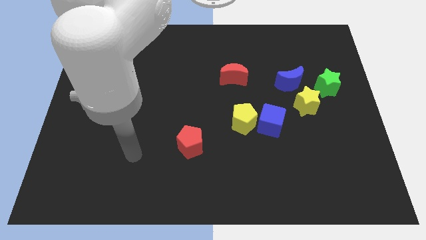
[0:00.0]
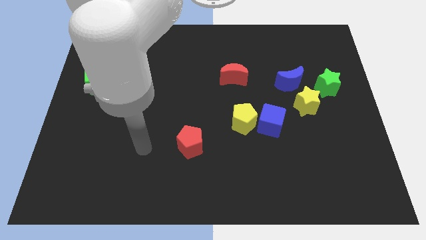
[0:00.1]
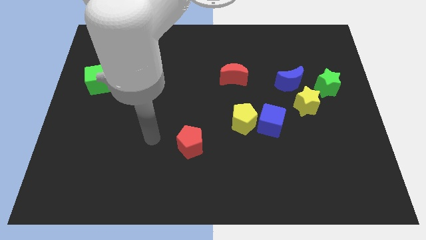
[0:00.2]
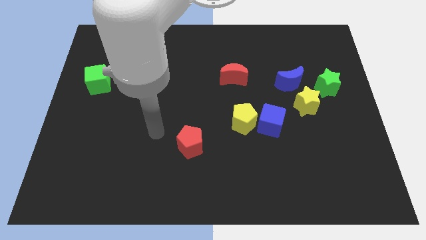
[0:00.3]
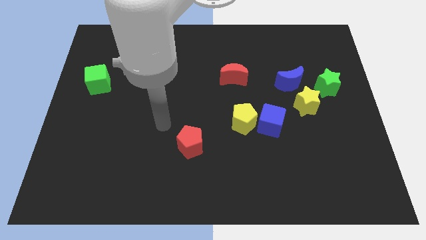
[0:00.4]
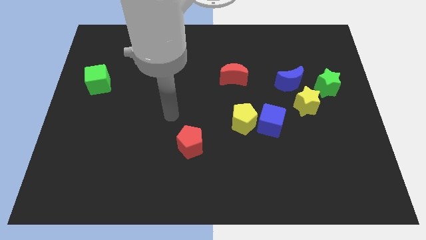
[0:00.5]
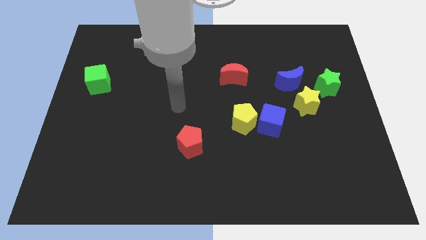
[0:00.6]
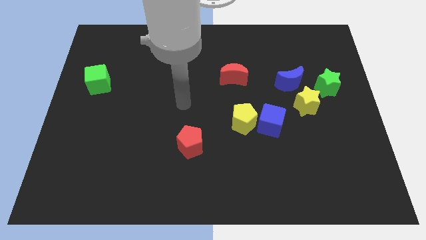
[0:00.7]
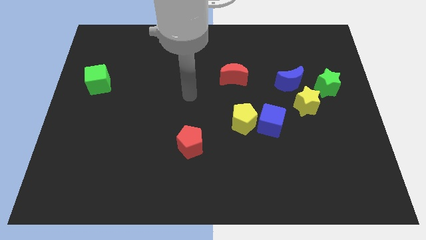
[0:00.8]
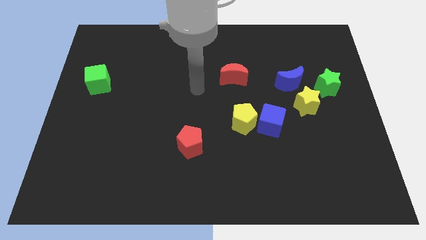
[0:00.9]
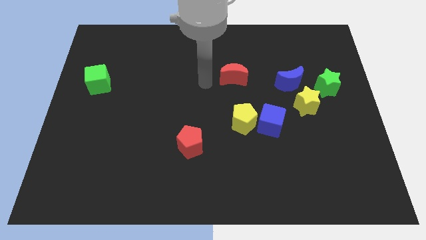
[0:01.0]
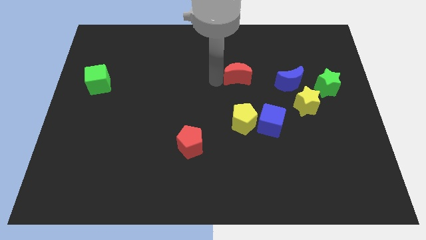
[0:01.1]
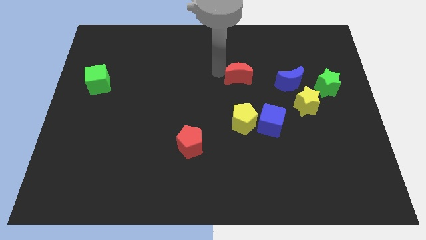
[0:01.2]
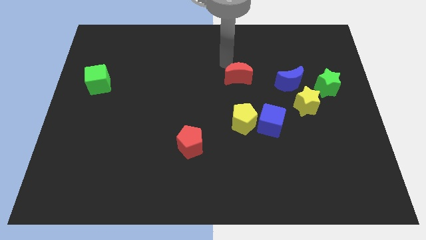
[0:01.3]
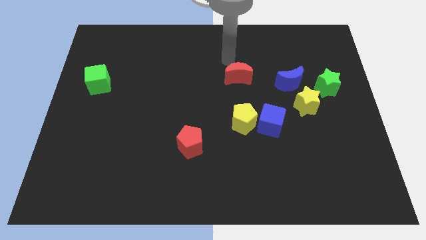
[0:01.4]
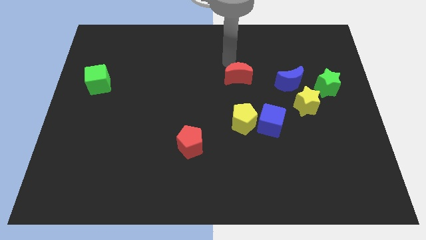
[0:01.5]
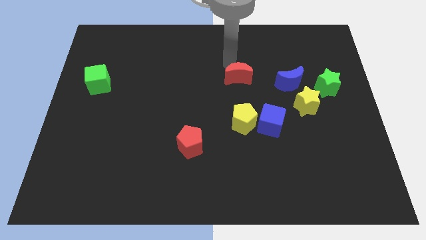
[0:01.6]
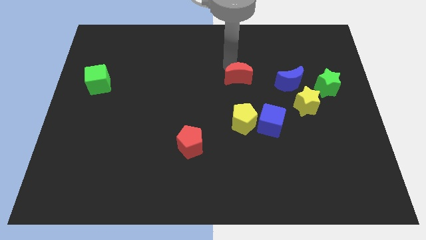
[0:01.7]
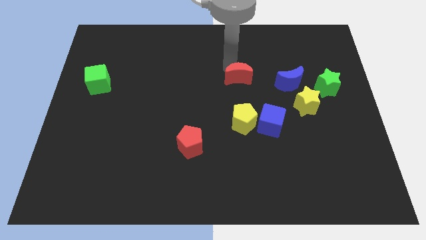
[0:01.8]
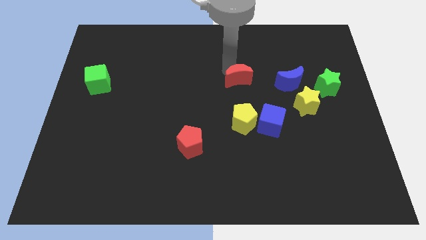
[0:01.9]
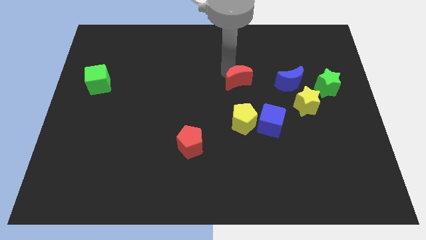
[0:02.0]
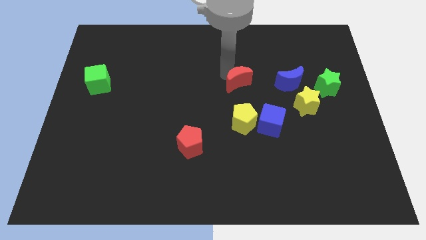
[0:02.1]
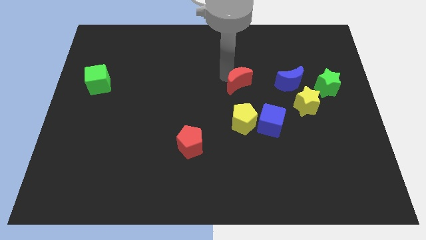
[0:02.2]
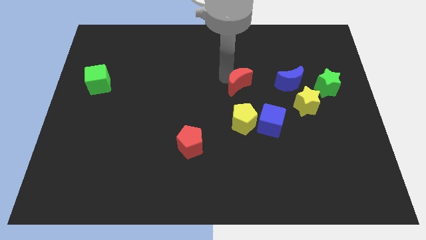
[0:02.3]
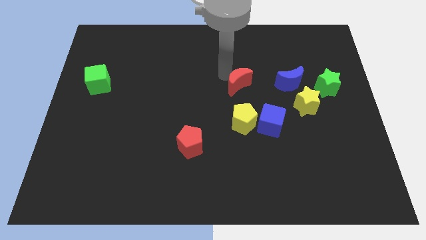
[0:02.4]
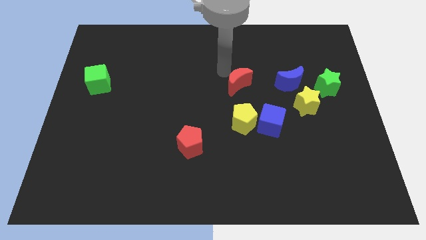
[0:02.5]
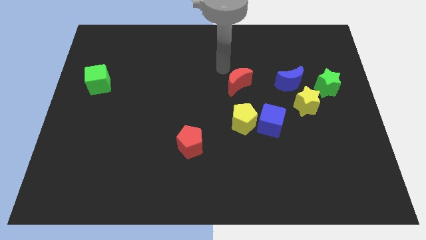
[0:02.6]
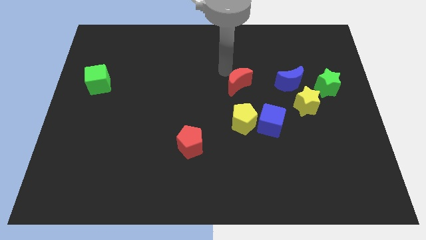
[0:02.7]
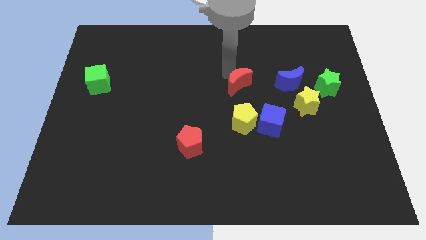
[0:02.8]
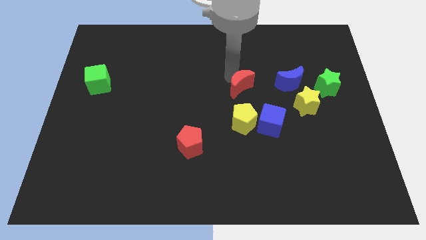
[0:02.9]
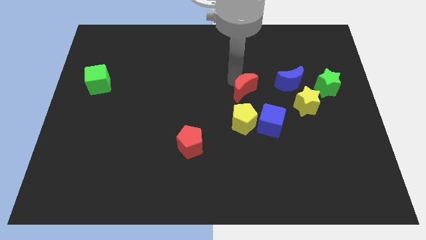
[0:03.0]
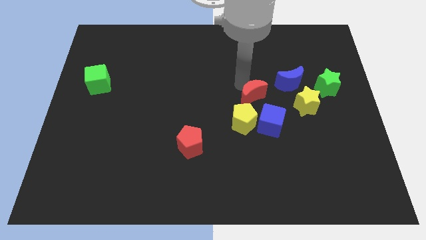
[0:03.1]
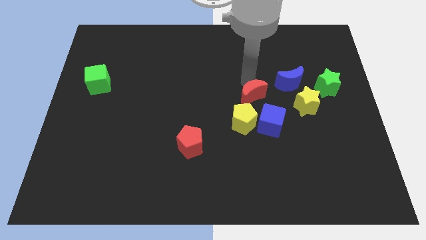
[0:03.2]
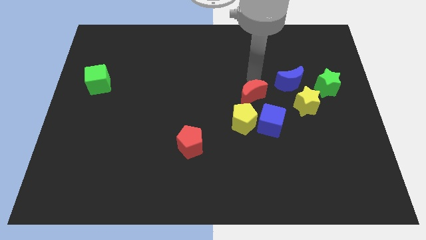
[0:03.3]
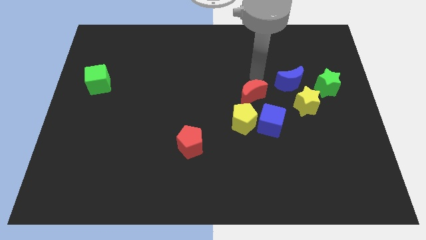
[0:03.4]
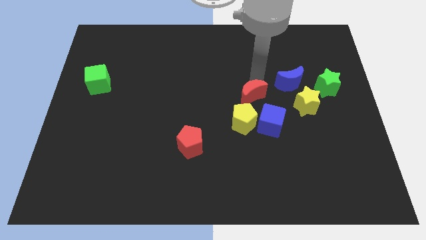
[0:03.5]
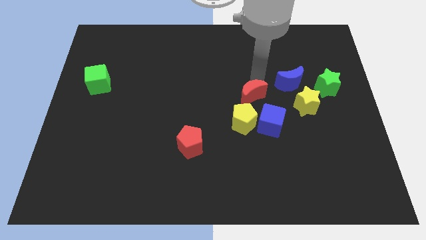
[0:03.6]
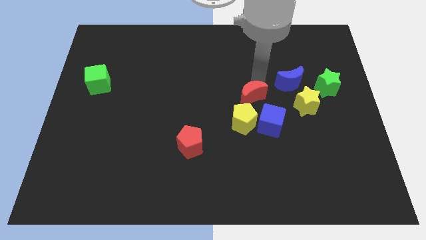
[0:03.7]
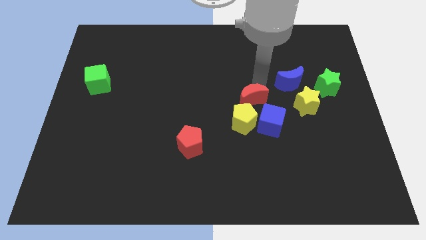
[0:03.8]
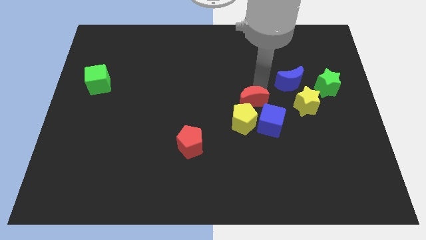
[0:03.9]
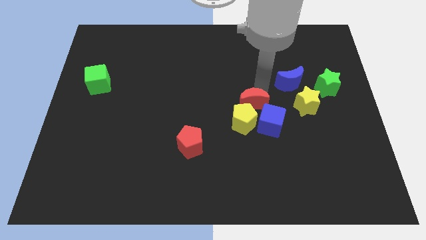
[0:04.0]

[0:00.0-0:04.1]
move the red moon to the yellow pentagon

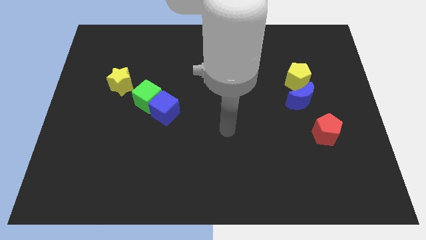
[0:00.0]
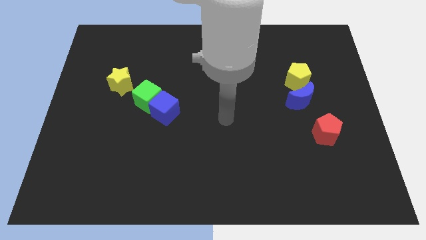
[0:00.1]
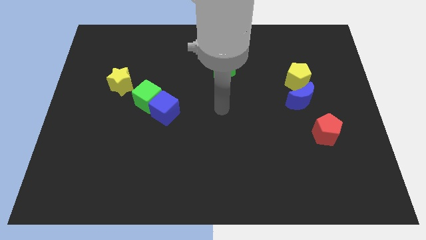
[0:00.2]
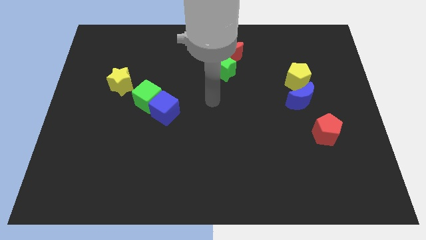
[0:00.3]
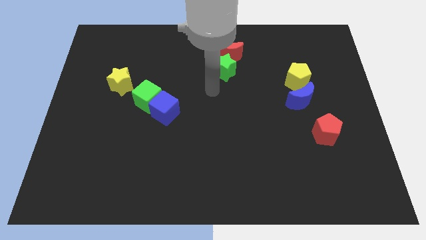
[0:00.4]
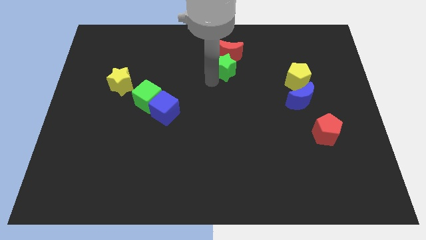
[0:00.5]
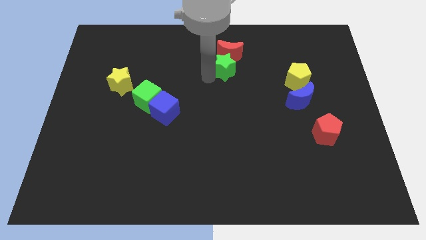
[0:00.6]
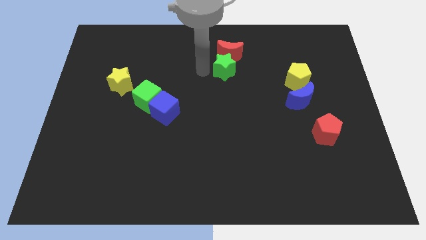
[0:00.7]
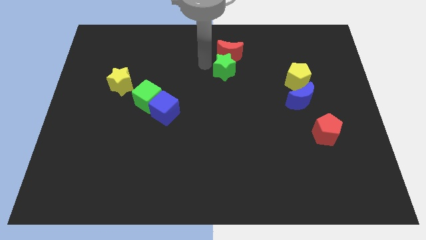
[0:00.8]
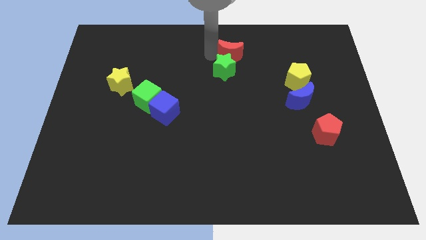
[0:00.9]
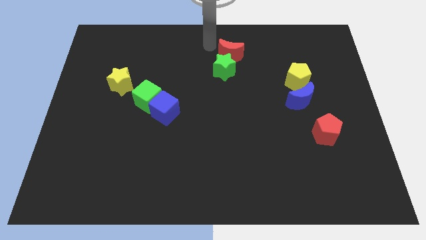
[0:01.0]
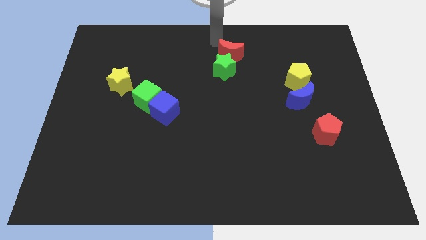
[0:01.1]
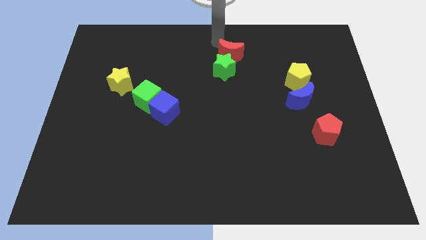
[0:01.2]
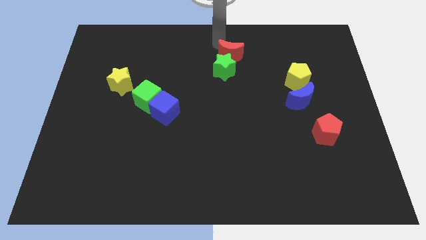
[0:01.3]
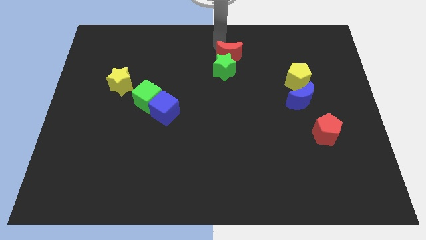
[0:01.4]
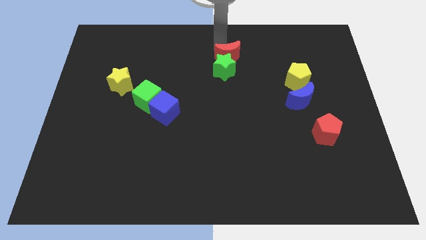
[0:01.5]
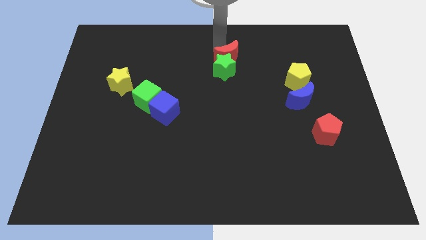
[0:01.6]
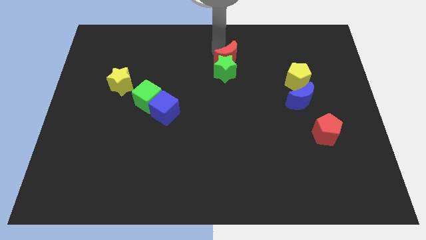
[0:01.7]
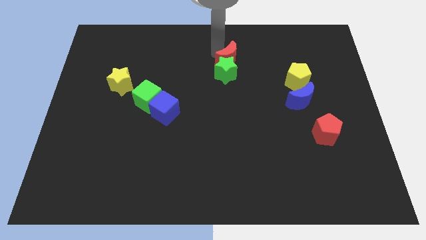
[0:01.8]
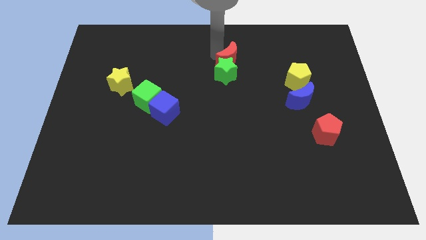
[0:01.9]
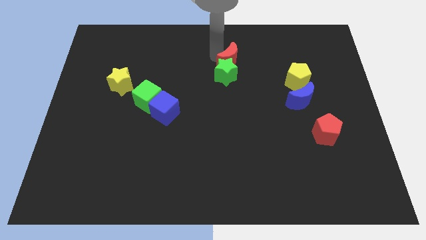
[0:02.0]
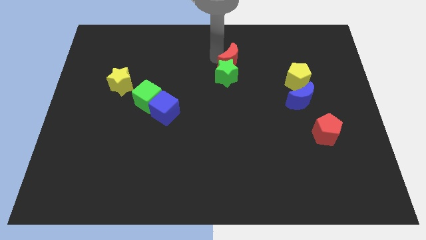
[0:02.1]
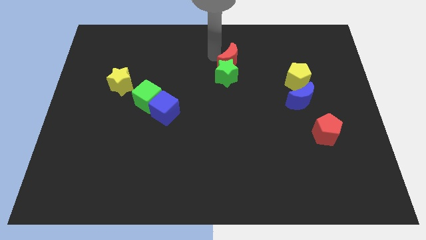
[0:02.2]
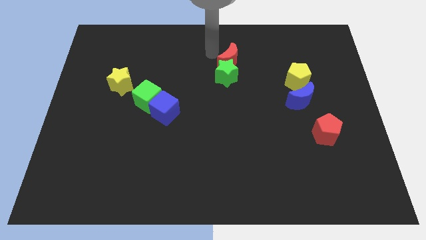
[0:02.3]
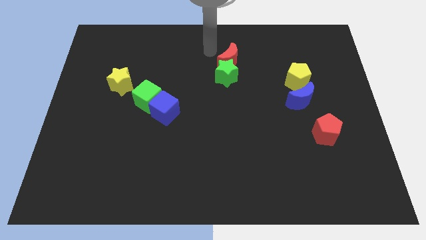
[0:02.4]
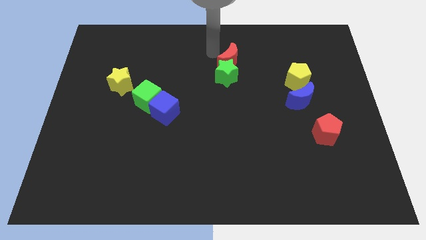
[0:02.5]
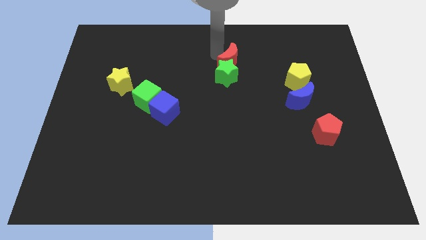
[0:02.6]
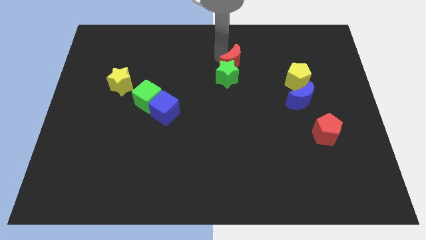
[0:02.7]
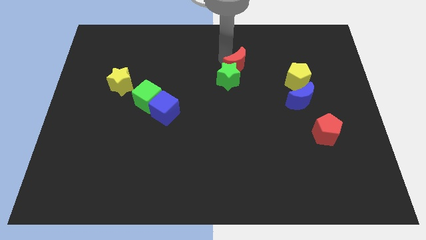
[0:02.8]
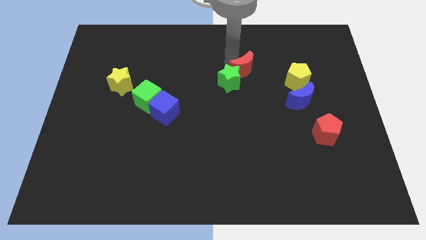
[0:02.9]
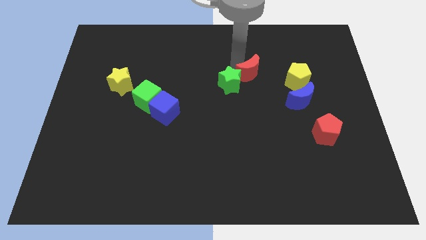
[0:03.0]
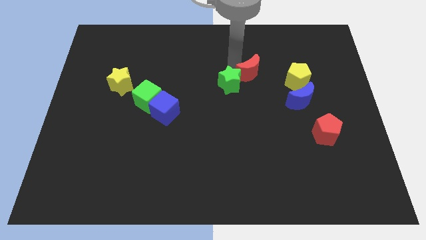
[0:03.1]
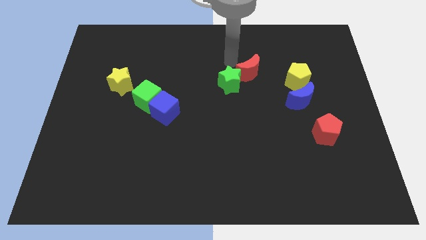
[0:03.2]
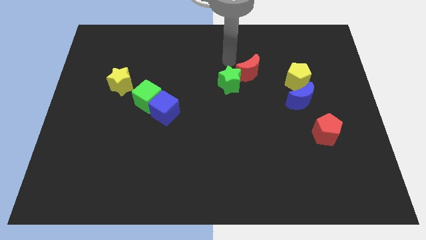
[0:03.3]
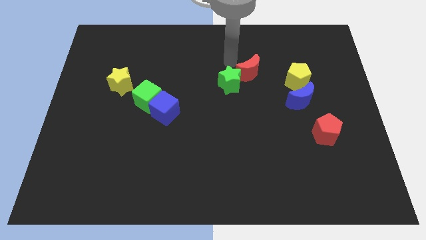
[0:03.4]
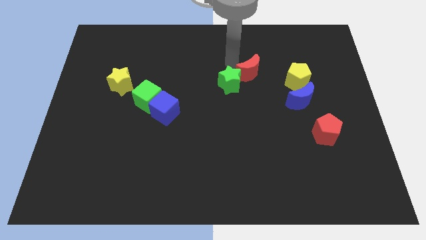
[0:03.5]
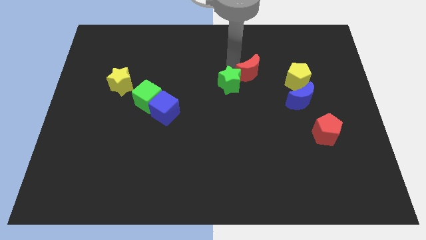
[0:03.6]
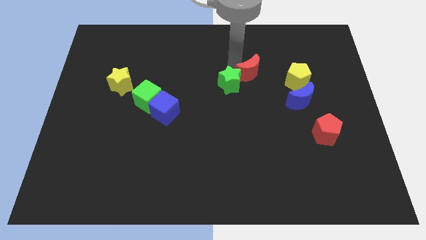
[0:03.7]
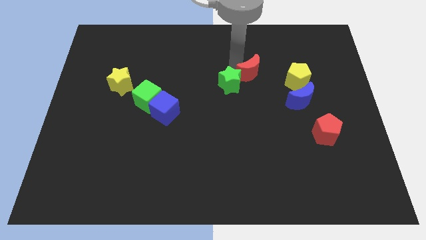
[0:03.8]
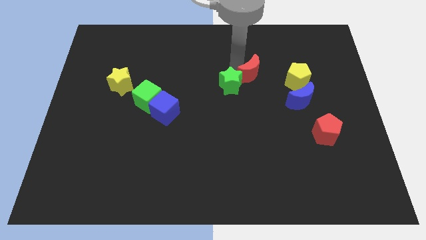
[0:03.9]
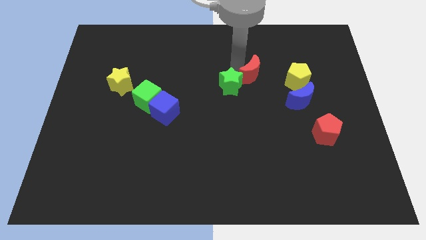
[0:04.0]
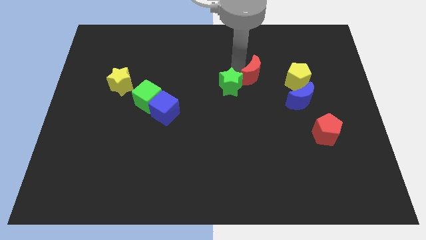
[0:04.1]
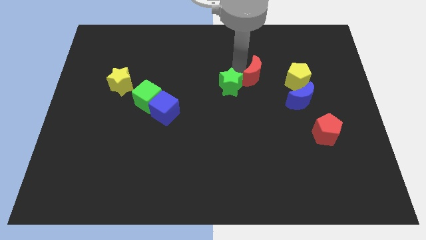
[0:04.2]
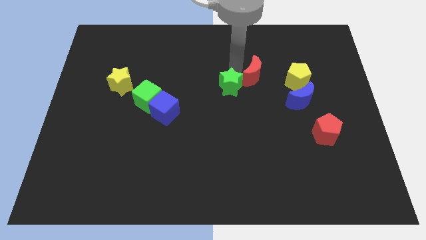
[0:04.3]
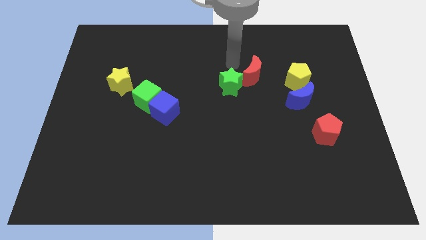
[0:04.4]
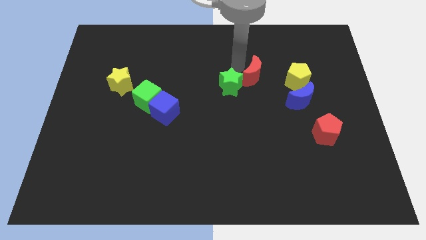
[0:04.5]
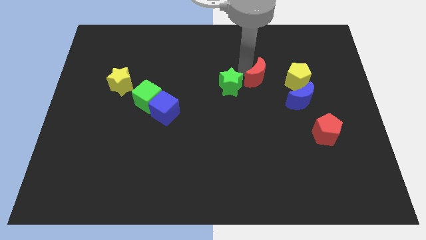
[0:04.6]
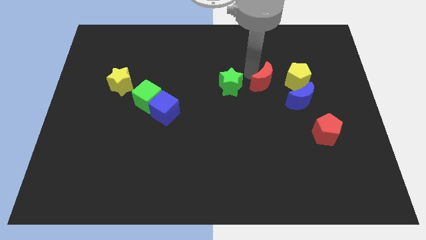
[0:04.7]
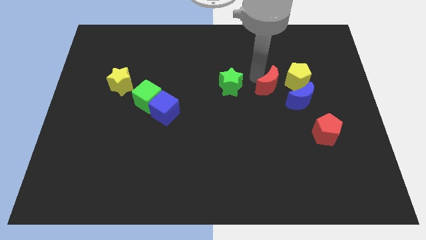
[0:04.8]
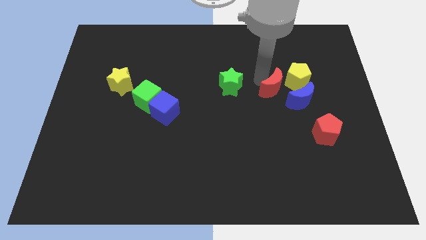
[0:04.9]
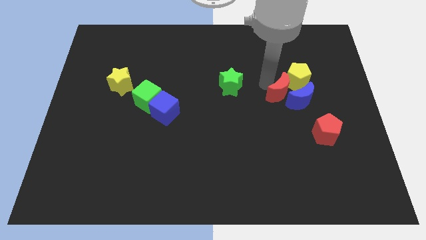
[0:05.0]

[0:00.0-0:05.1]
move the red moon to the blue moon
